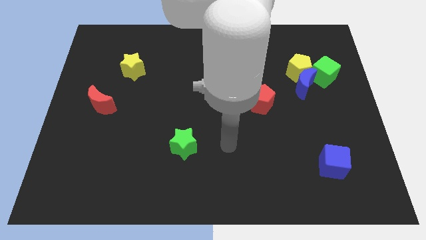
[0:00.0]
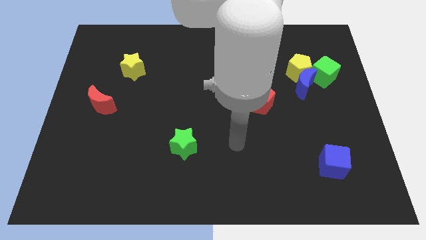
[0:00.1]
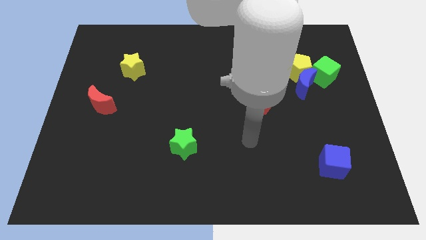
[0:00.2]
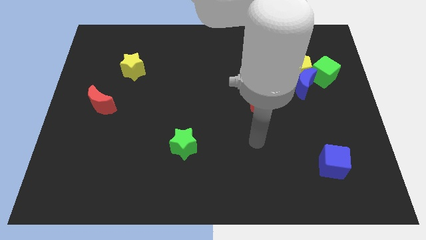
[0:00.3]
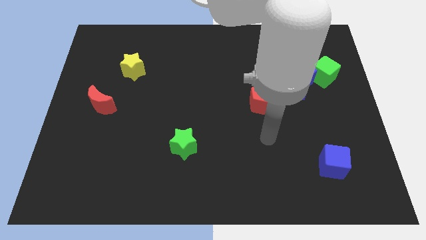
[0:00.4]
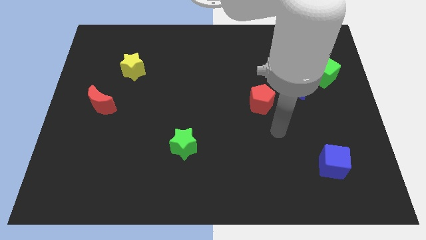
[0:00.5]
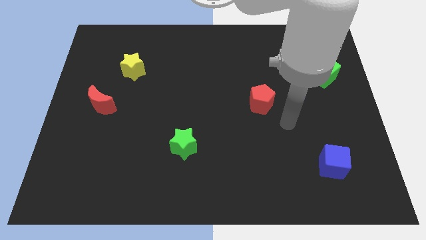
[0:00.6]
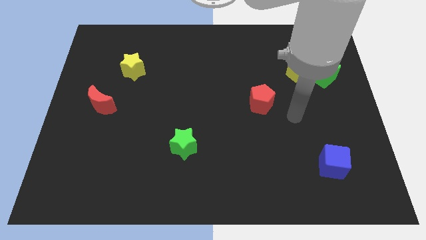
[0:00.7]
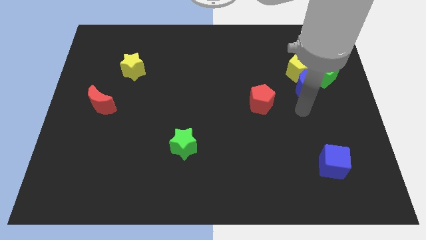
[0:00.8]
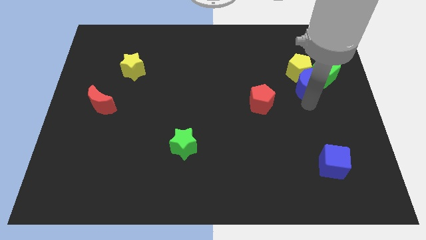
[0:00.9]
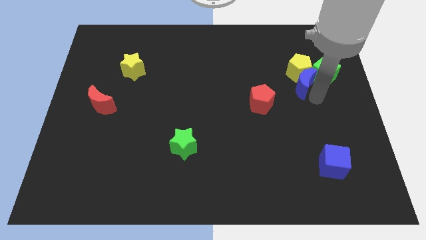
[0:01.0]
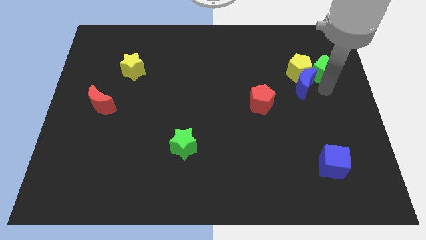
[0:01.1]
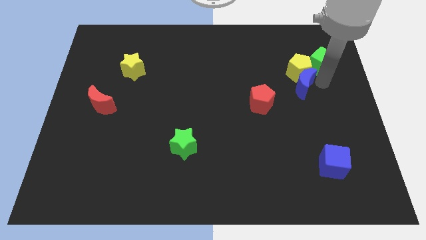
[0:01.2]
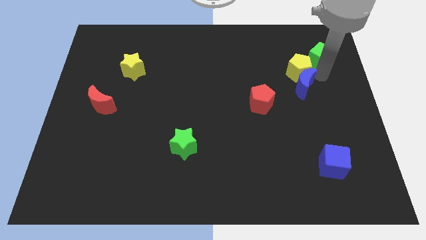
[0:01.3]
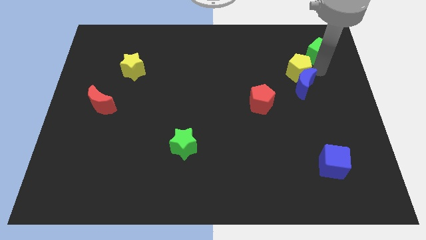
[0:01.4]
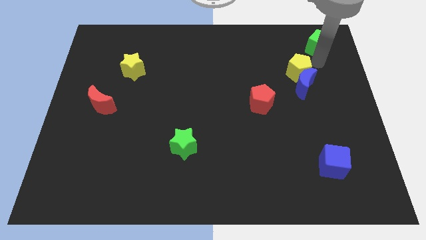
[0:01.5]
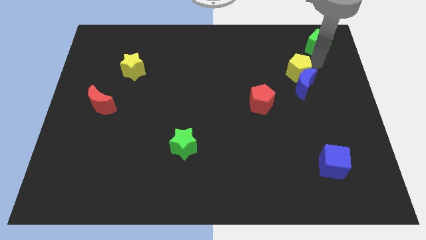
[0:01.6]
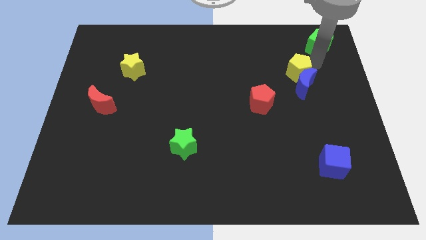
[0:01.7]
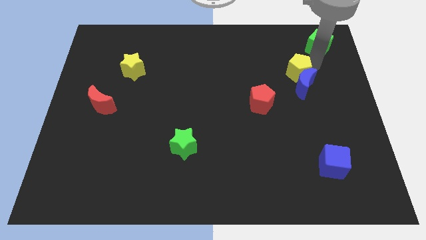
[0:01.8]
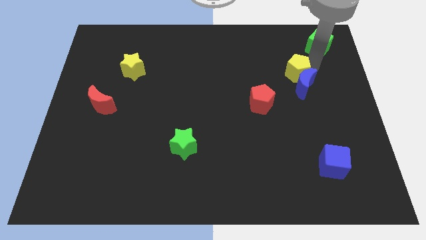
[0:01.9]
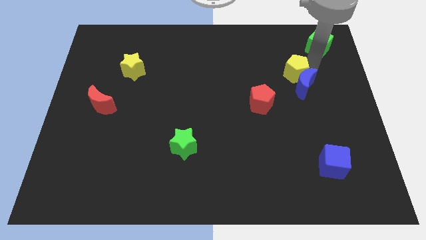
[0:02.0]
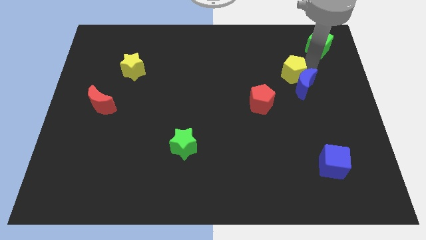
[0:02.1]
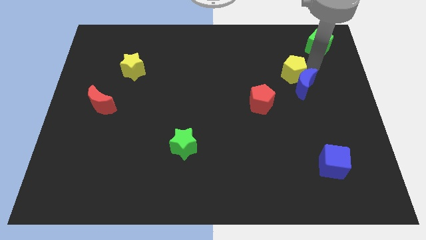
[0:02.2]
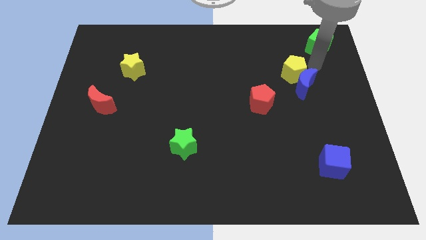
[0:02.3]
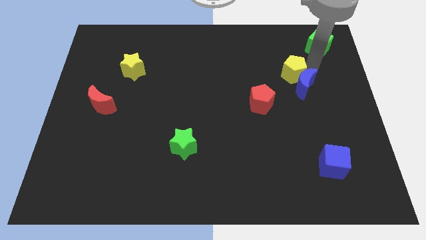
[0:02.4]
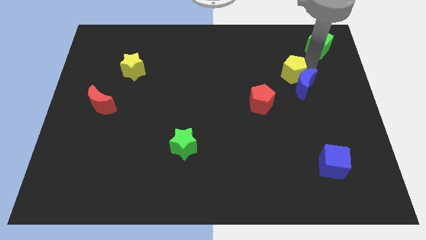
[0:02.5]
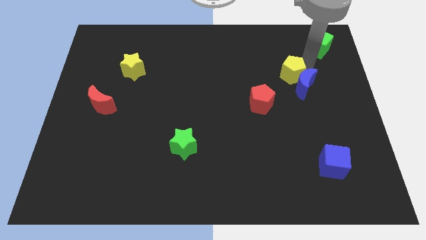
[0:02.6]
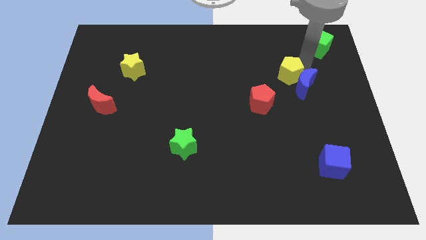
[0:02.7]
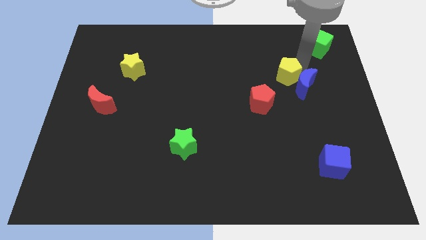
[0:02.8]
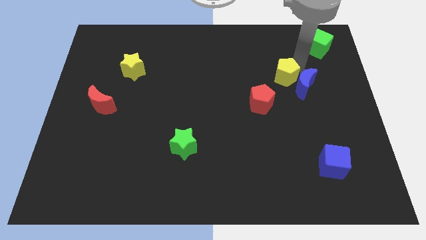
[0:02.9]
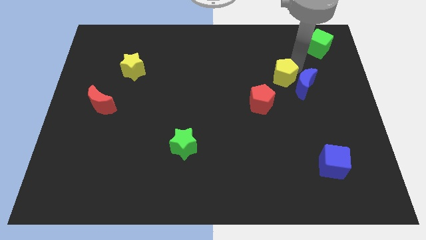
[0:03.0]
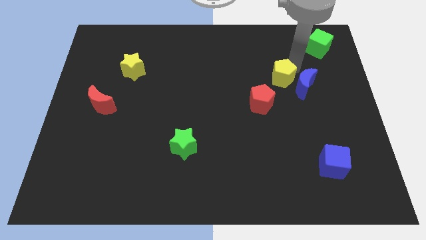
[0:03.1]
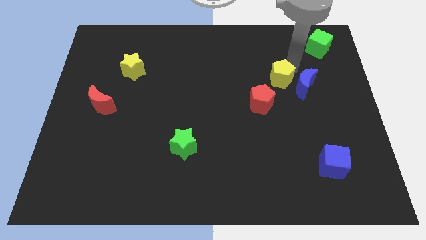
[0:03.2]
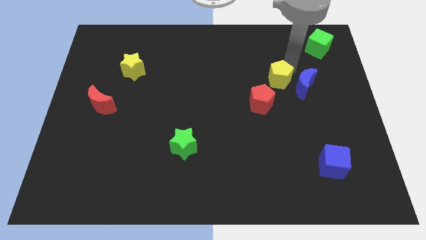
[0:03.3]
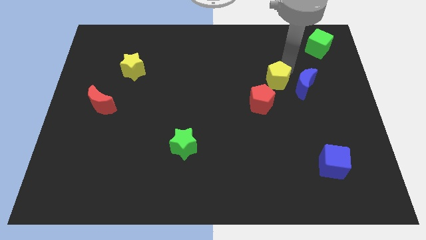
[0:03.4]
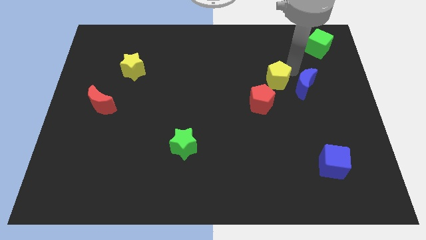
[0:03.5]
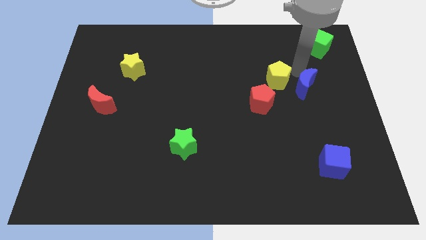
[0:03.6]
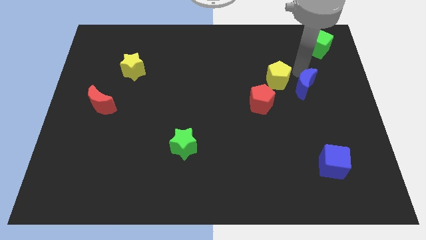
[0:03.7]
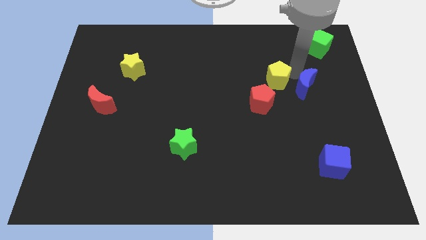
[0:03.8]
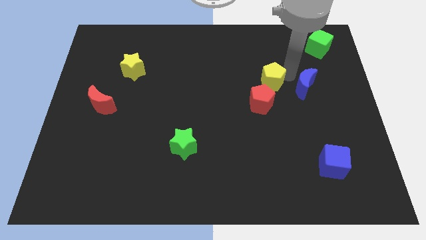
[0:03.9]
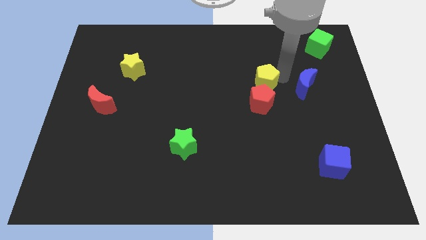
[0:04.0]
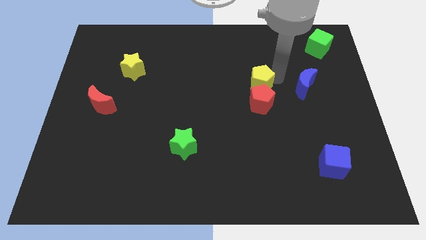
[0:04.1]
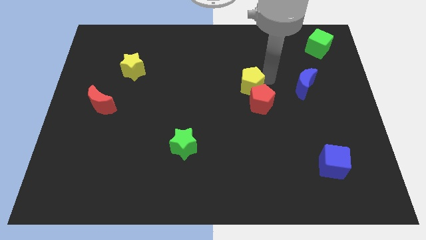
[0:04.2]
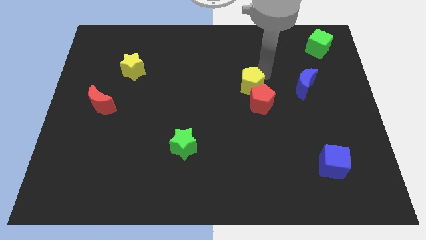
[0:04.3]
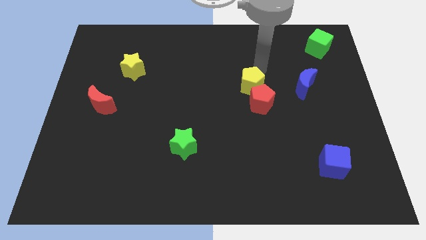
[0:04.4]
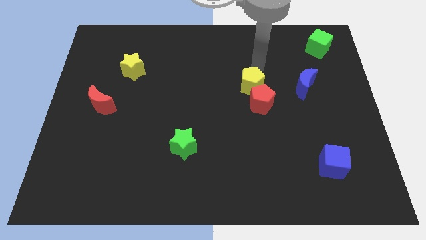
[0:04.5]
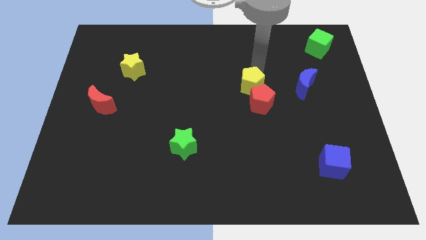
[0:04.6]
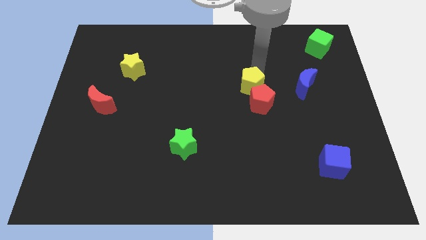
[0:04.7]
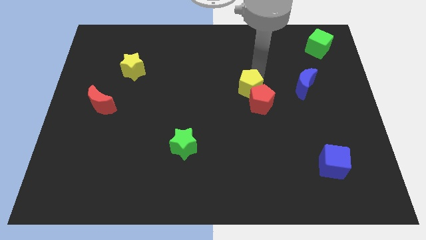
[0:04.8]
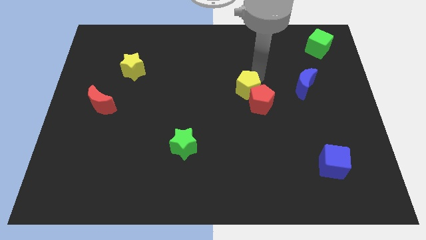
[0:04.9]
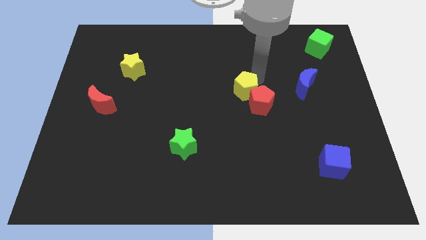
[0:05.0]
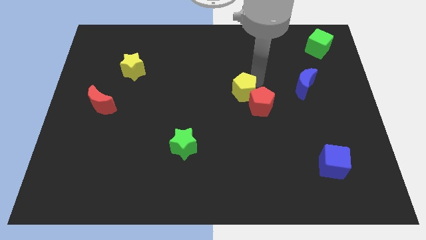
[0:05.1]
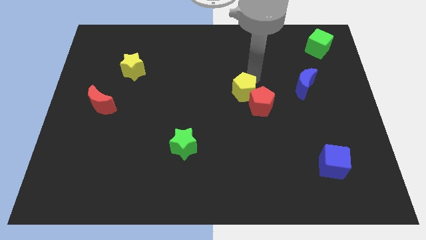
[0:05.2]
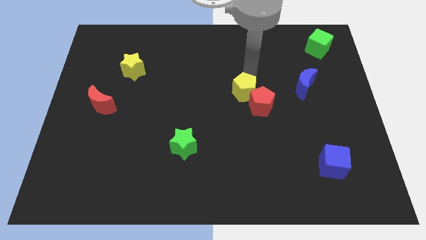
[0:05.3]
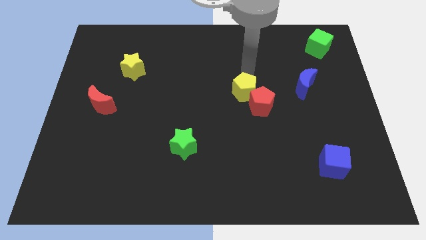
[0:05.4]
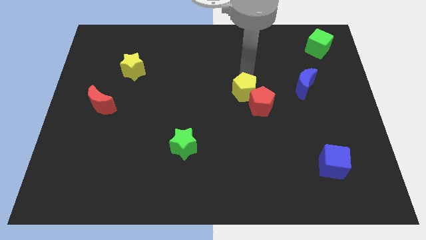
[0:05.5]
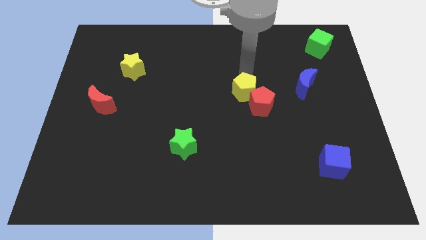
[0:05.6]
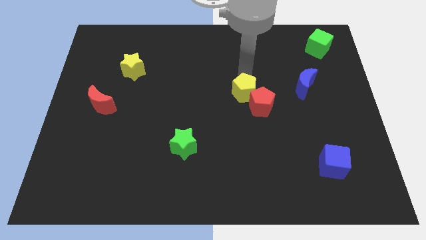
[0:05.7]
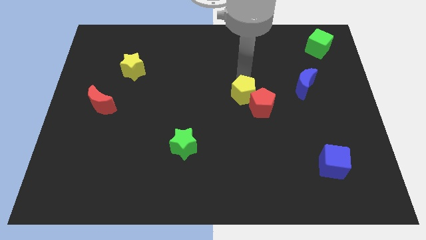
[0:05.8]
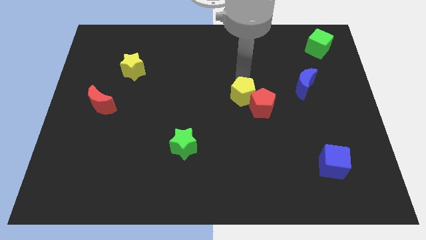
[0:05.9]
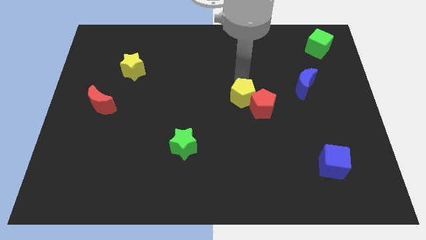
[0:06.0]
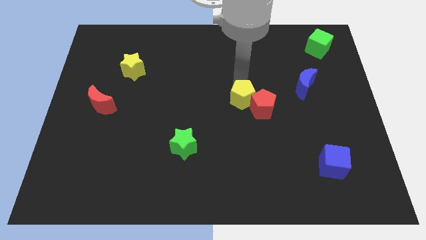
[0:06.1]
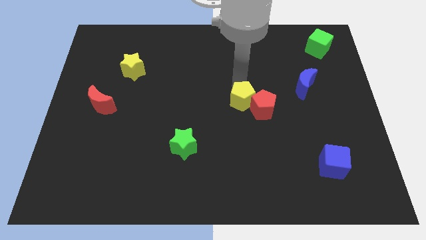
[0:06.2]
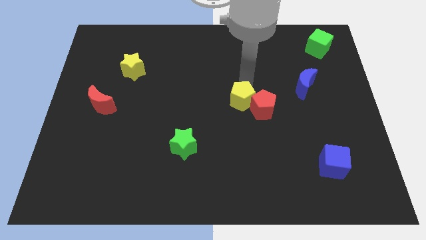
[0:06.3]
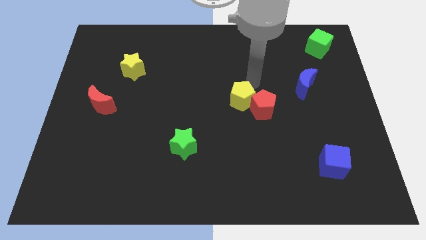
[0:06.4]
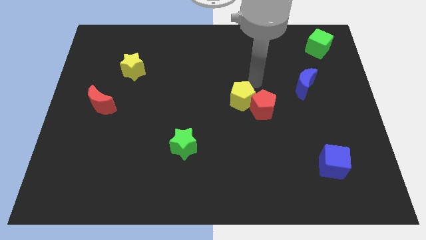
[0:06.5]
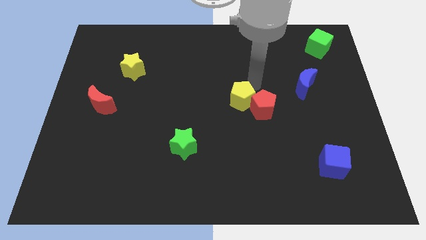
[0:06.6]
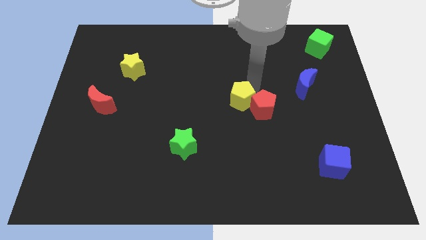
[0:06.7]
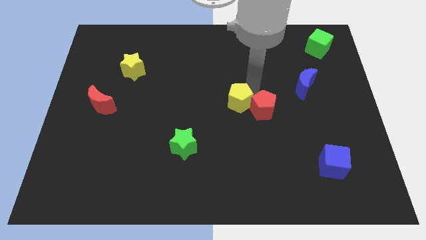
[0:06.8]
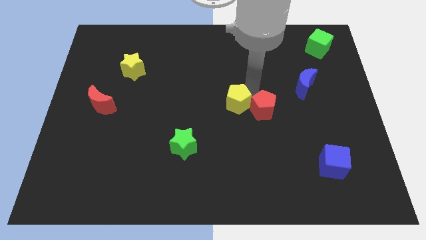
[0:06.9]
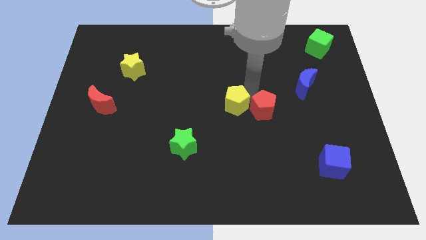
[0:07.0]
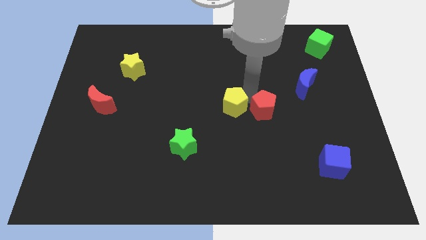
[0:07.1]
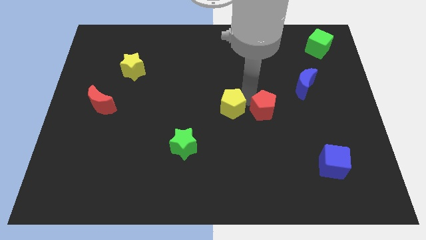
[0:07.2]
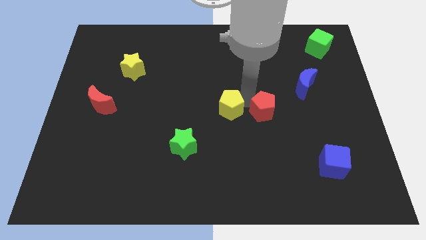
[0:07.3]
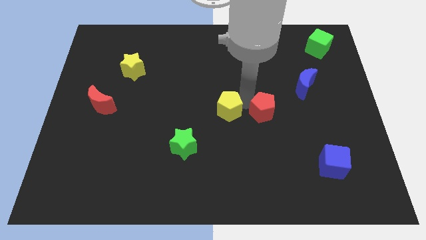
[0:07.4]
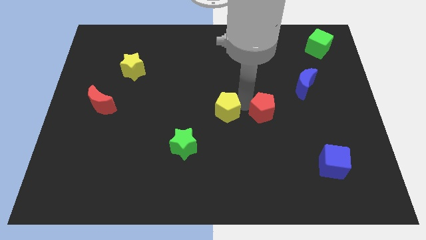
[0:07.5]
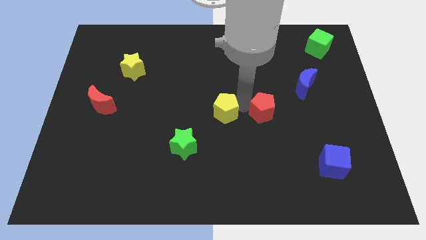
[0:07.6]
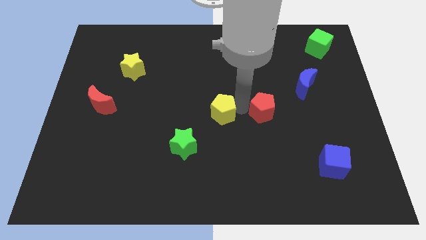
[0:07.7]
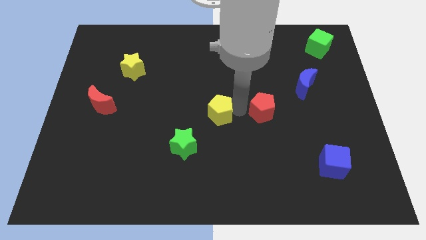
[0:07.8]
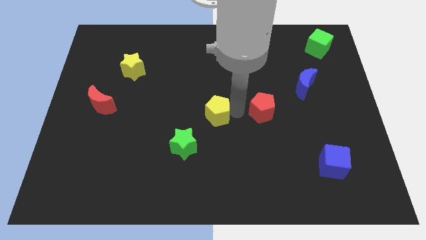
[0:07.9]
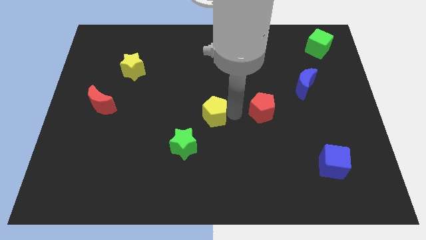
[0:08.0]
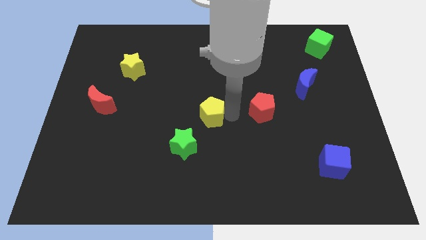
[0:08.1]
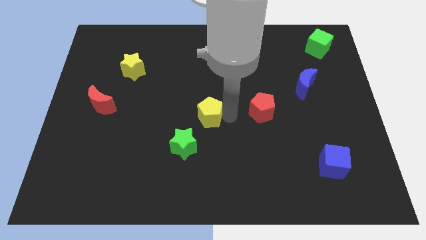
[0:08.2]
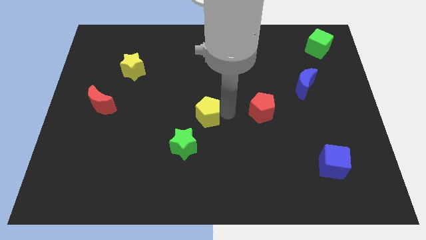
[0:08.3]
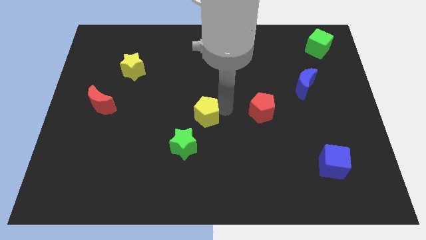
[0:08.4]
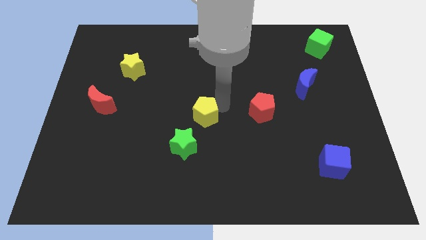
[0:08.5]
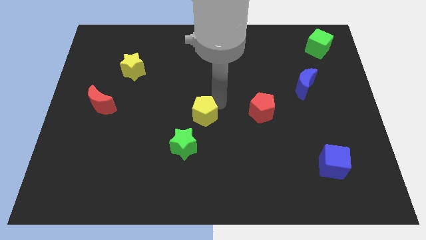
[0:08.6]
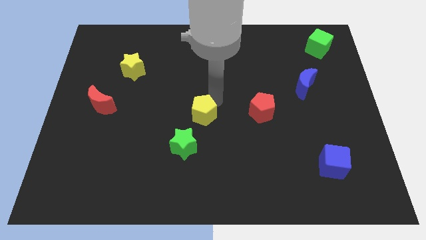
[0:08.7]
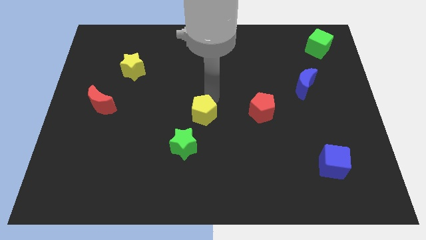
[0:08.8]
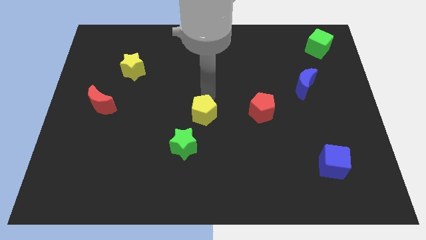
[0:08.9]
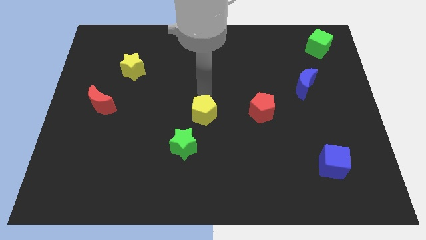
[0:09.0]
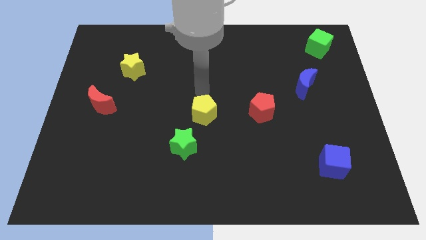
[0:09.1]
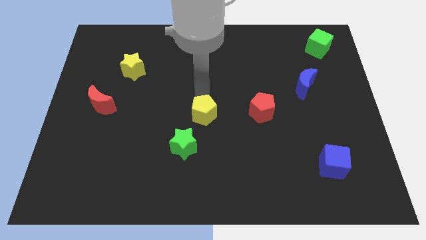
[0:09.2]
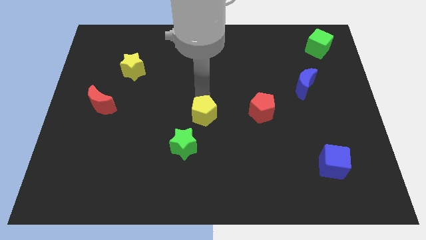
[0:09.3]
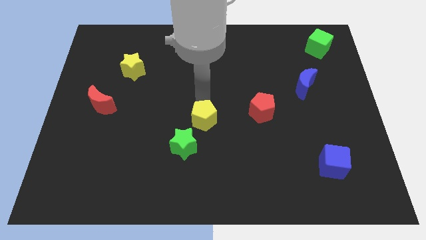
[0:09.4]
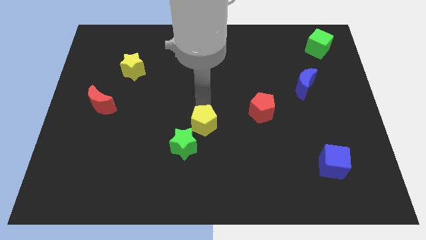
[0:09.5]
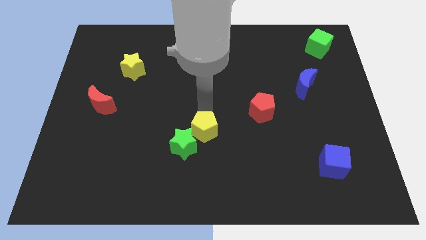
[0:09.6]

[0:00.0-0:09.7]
slide the yellow pentagon towards the green star
